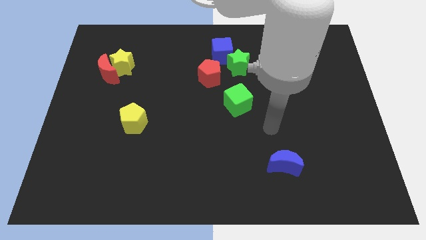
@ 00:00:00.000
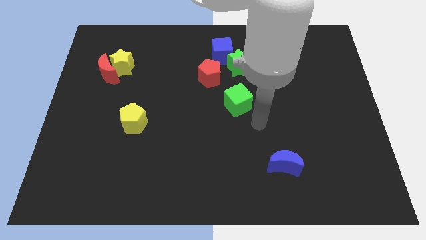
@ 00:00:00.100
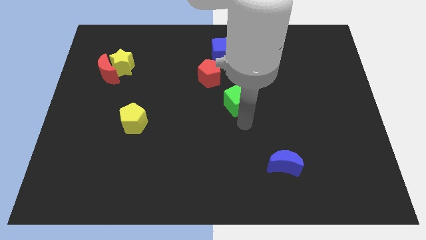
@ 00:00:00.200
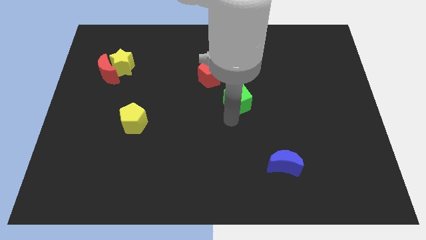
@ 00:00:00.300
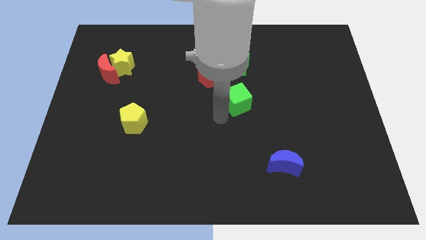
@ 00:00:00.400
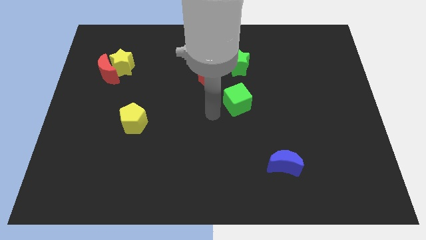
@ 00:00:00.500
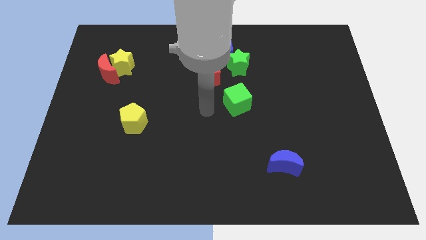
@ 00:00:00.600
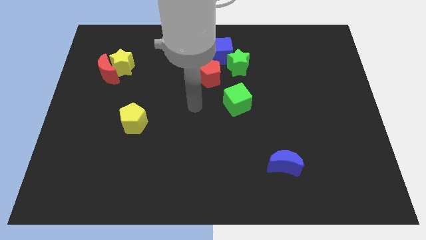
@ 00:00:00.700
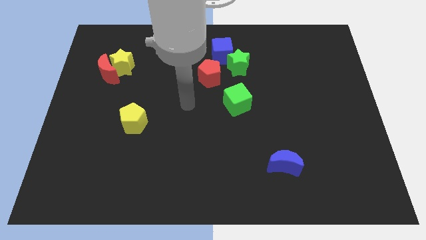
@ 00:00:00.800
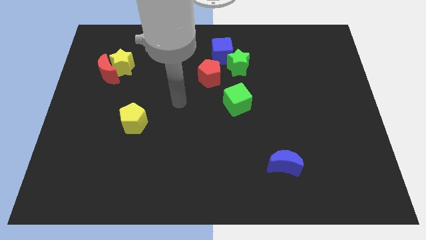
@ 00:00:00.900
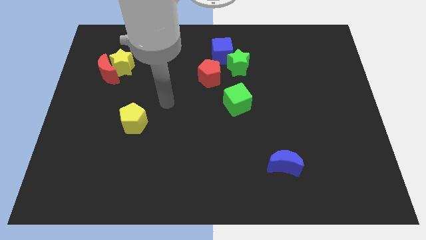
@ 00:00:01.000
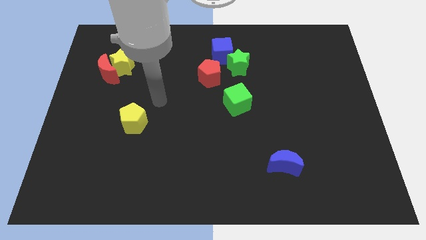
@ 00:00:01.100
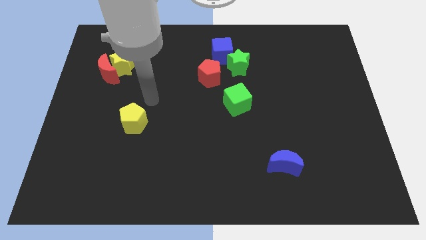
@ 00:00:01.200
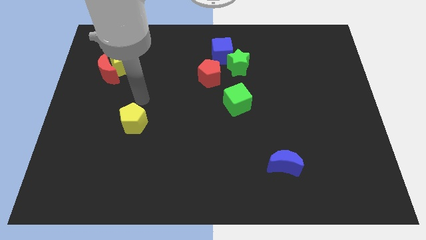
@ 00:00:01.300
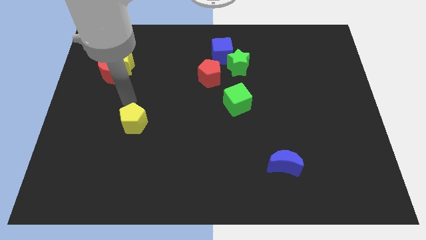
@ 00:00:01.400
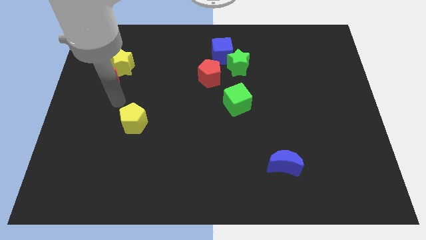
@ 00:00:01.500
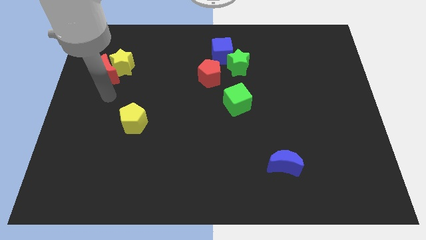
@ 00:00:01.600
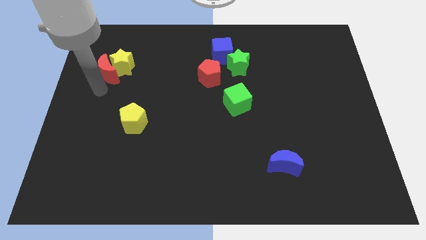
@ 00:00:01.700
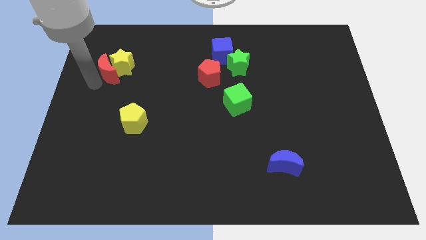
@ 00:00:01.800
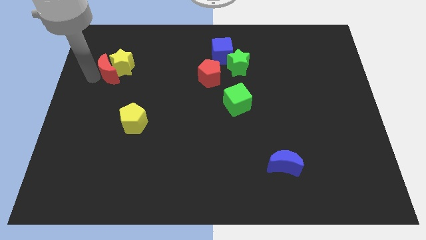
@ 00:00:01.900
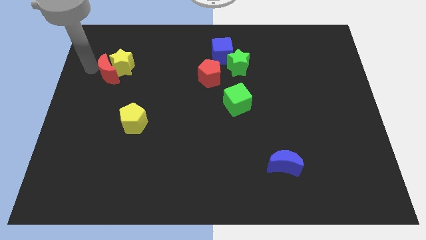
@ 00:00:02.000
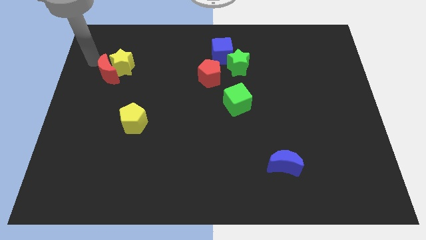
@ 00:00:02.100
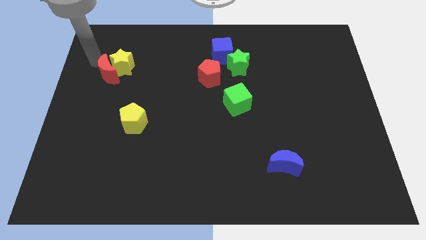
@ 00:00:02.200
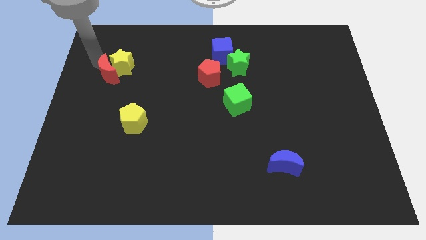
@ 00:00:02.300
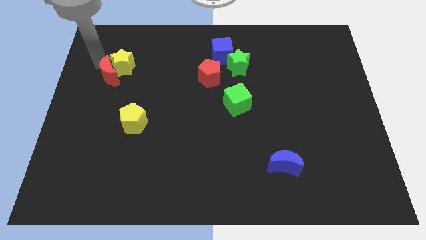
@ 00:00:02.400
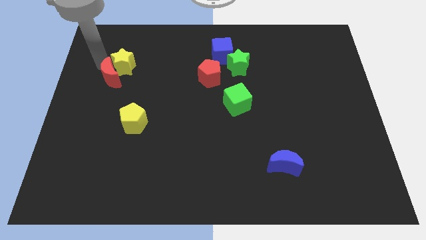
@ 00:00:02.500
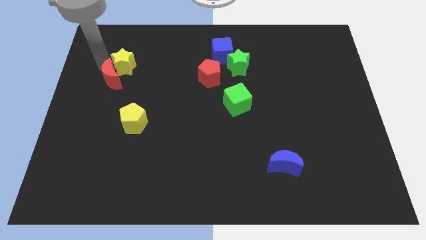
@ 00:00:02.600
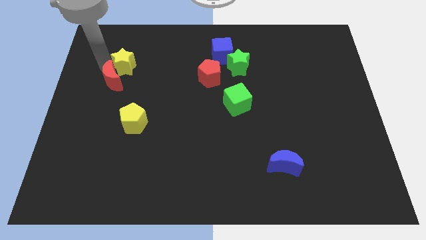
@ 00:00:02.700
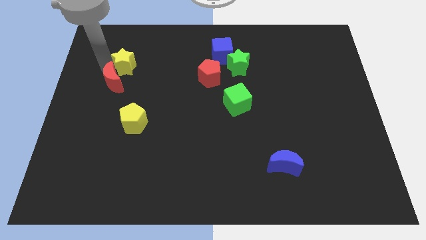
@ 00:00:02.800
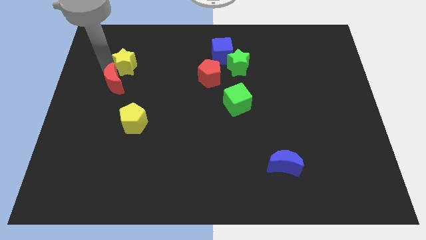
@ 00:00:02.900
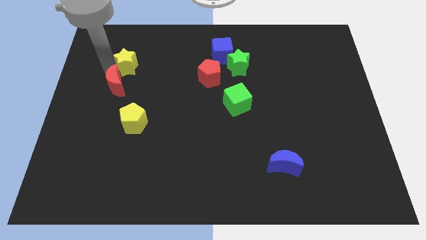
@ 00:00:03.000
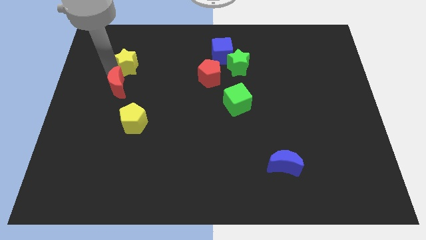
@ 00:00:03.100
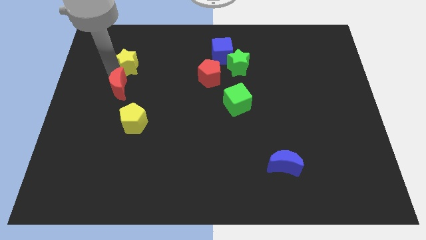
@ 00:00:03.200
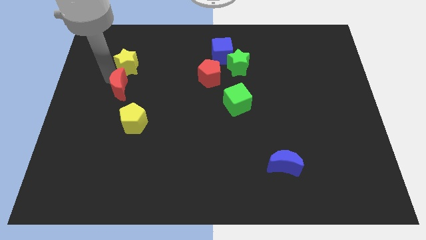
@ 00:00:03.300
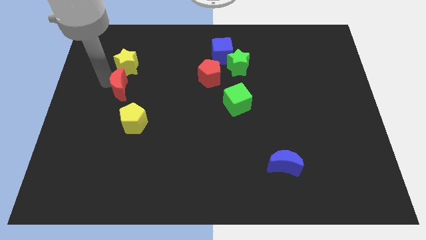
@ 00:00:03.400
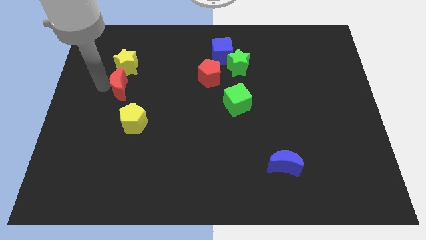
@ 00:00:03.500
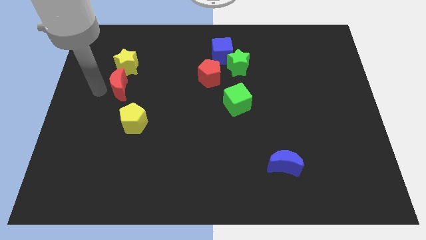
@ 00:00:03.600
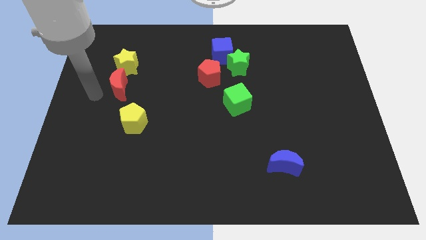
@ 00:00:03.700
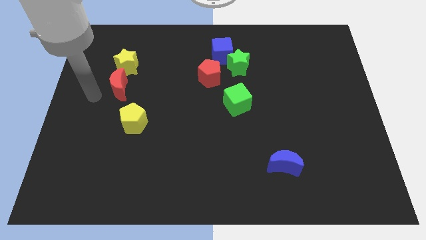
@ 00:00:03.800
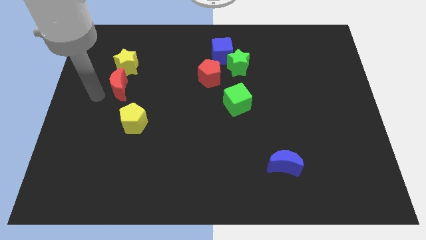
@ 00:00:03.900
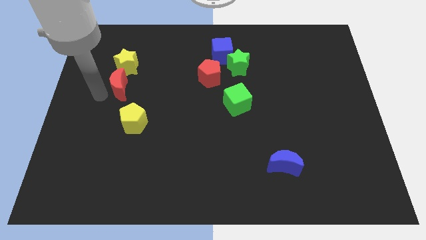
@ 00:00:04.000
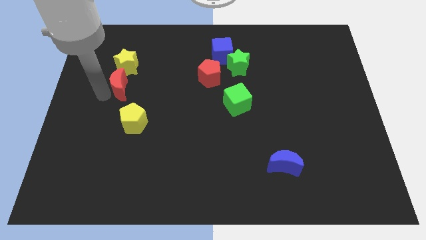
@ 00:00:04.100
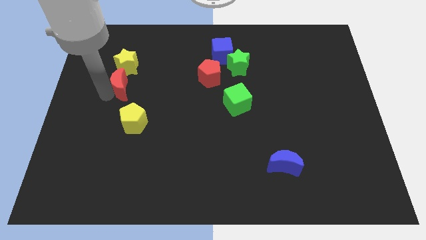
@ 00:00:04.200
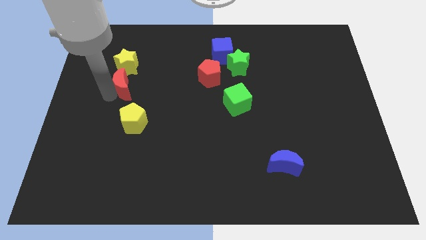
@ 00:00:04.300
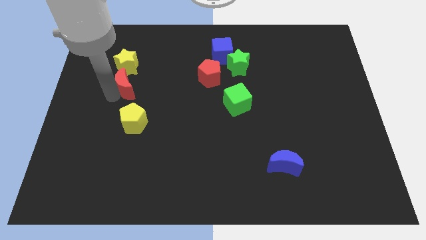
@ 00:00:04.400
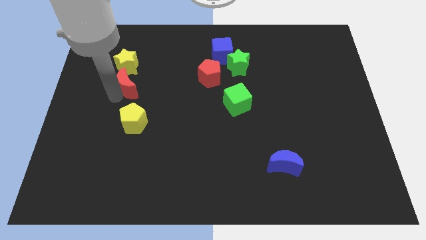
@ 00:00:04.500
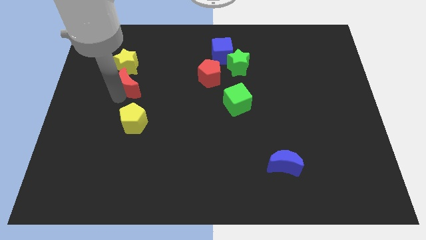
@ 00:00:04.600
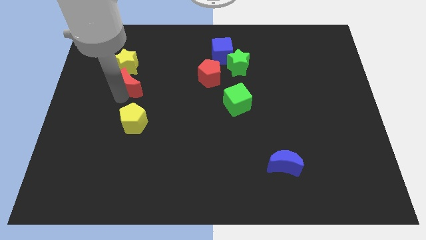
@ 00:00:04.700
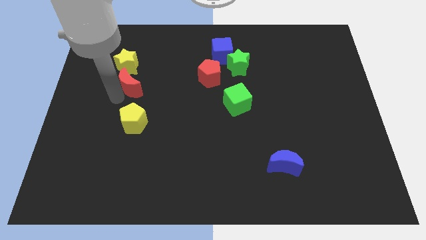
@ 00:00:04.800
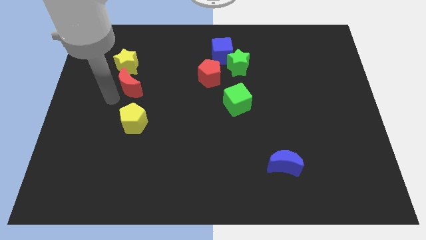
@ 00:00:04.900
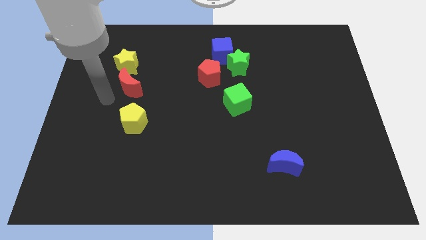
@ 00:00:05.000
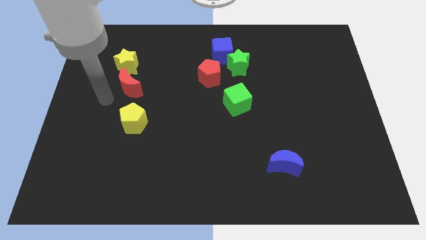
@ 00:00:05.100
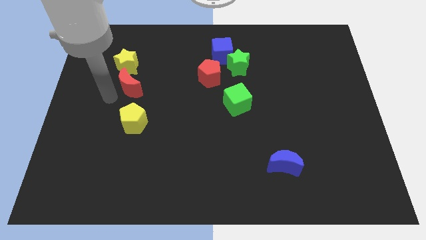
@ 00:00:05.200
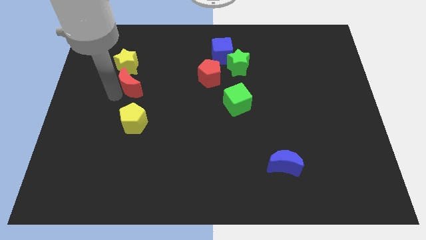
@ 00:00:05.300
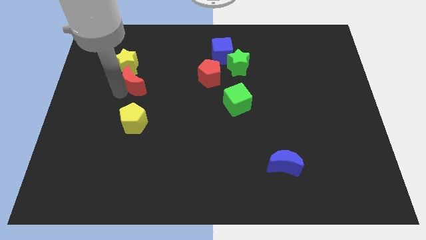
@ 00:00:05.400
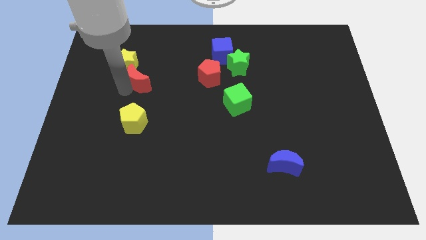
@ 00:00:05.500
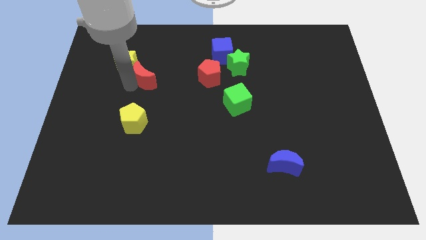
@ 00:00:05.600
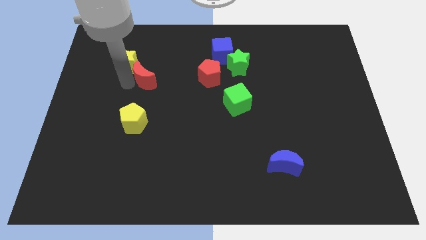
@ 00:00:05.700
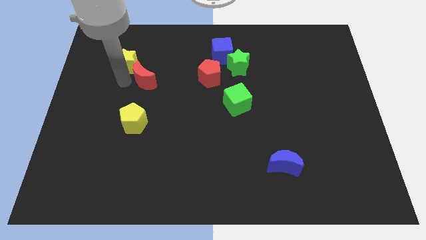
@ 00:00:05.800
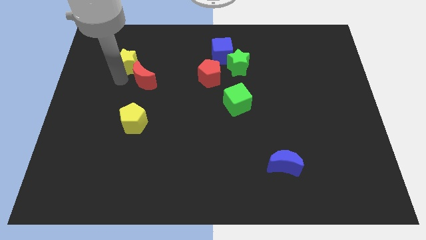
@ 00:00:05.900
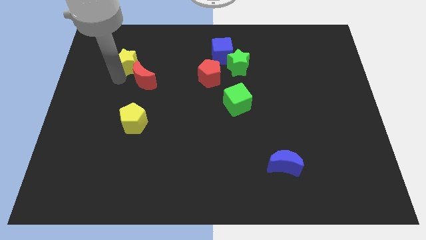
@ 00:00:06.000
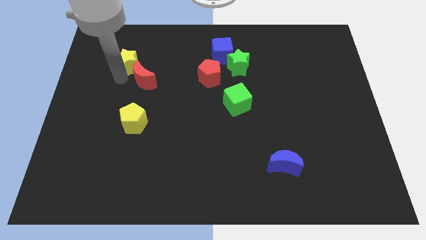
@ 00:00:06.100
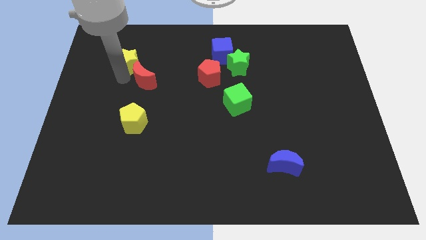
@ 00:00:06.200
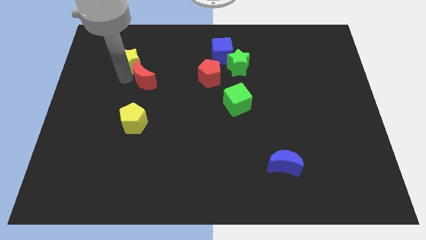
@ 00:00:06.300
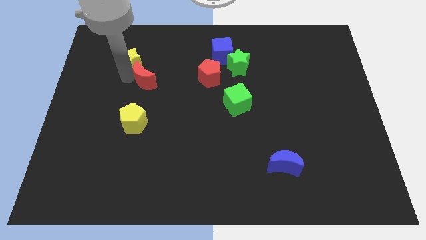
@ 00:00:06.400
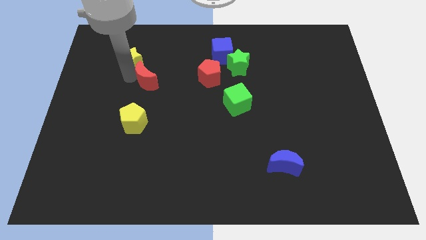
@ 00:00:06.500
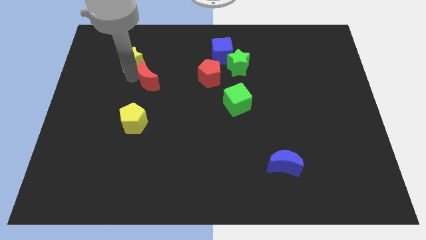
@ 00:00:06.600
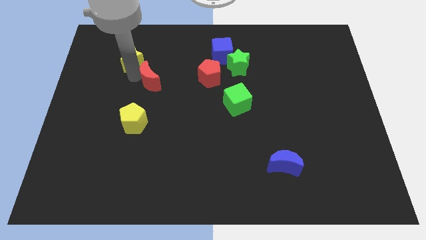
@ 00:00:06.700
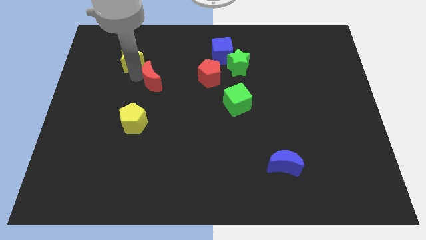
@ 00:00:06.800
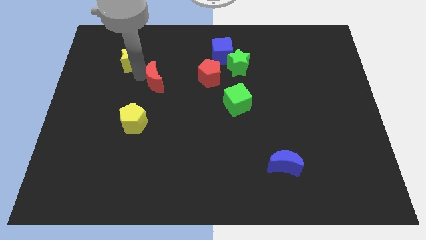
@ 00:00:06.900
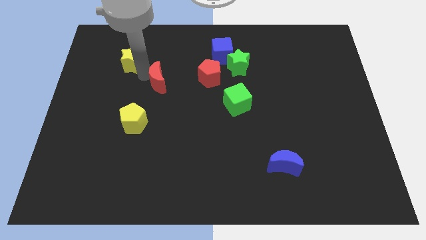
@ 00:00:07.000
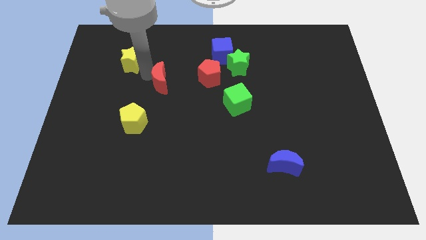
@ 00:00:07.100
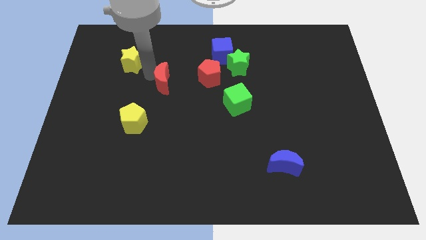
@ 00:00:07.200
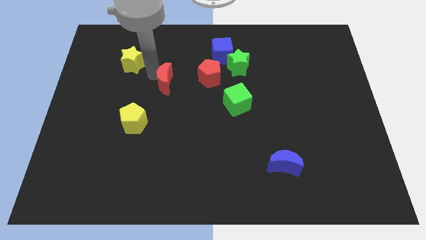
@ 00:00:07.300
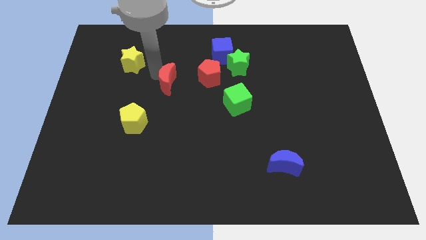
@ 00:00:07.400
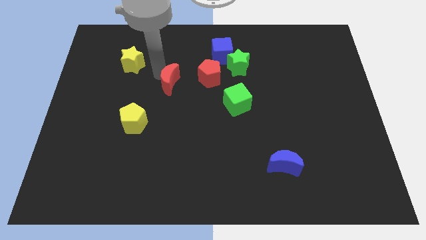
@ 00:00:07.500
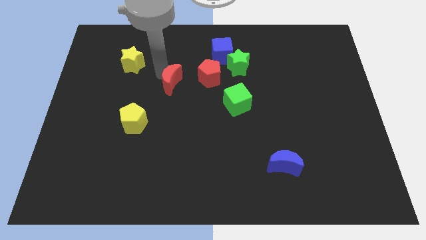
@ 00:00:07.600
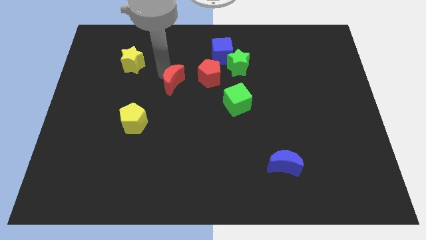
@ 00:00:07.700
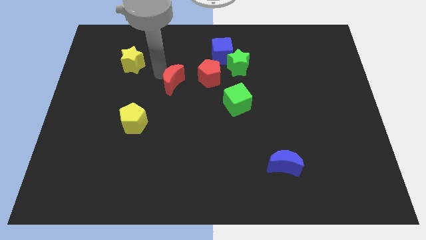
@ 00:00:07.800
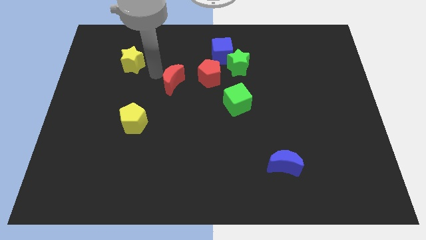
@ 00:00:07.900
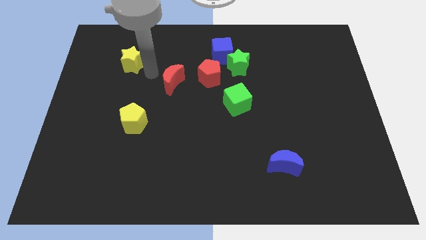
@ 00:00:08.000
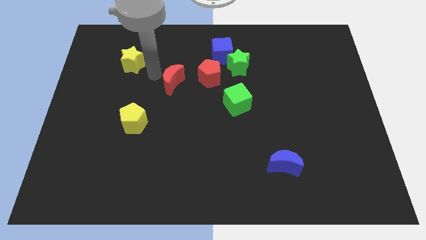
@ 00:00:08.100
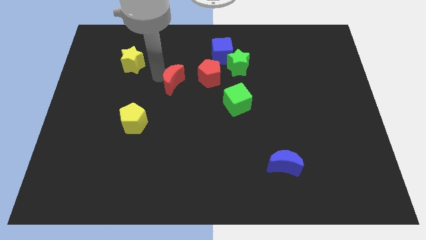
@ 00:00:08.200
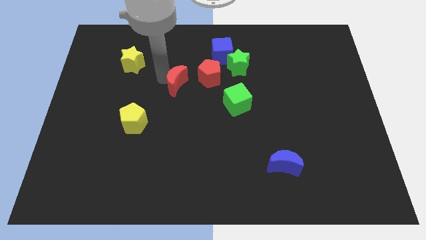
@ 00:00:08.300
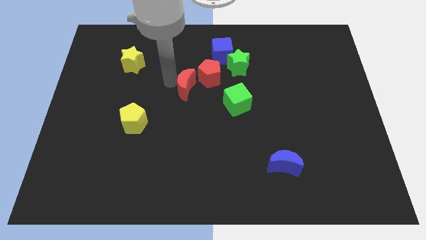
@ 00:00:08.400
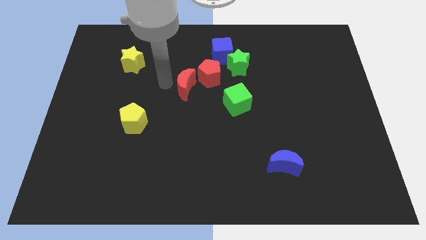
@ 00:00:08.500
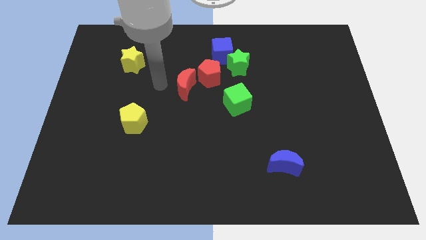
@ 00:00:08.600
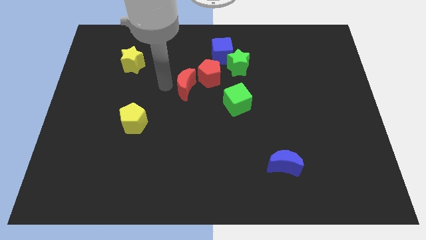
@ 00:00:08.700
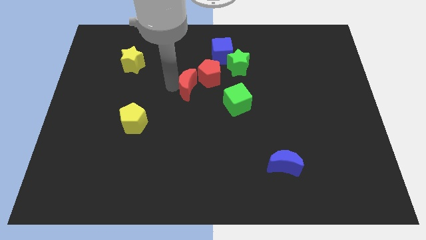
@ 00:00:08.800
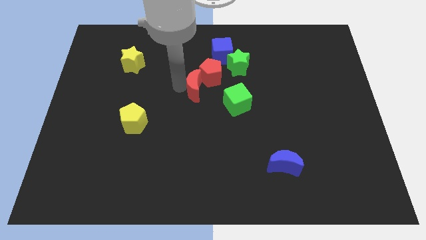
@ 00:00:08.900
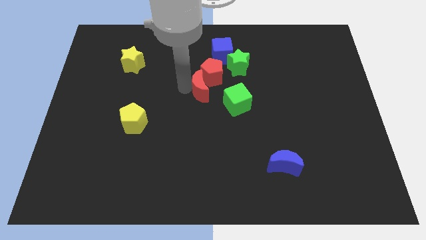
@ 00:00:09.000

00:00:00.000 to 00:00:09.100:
put the red moon to the bottom left of the green star
